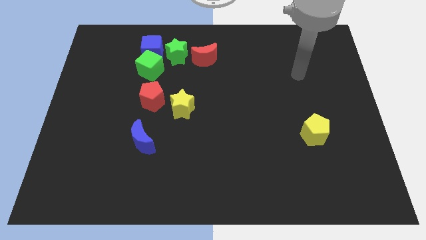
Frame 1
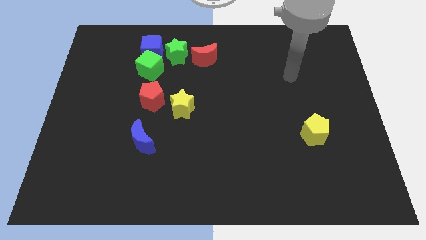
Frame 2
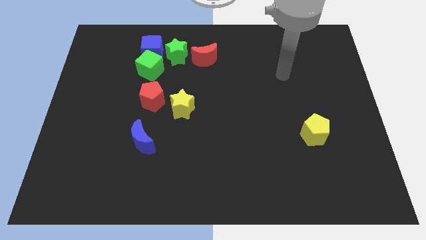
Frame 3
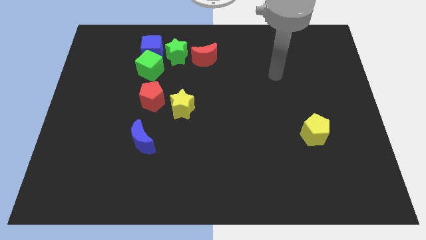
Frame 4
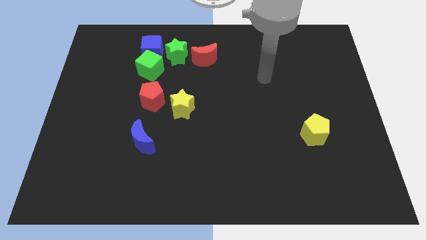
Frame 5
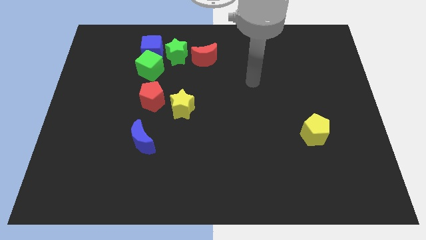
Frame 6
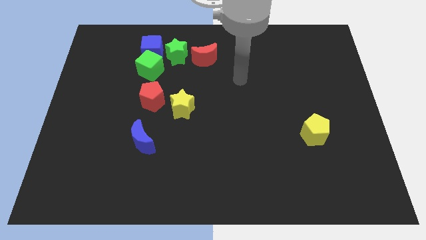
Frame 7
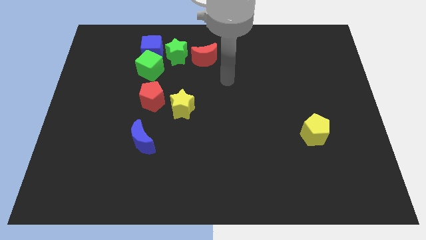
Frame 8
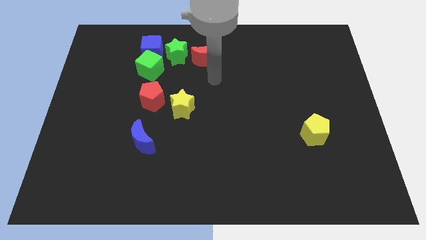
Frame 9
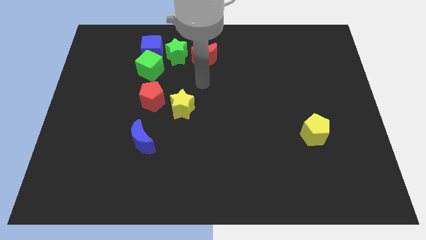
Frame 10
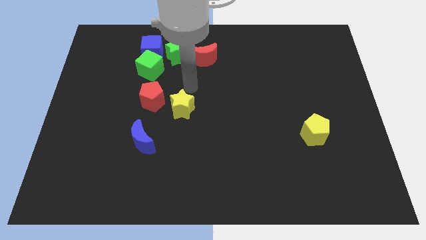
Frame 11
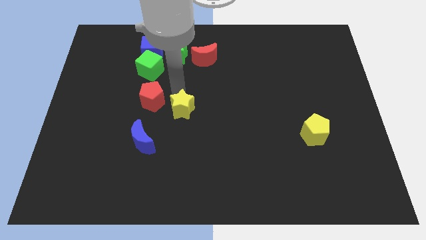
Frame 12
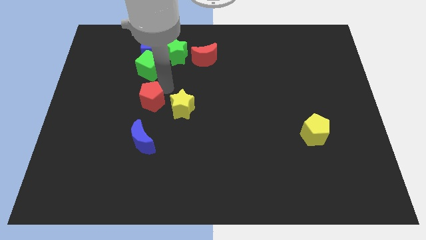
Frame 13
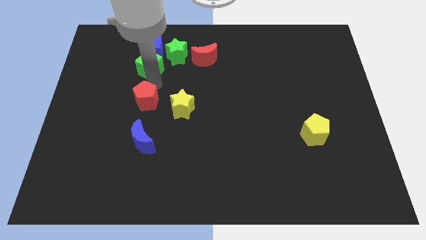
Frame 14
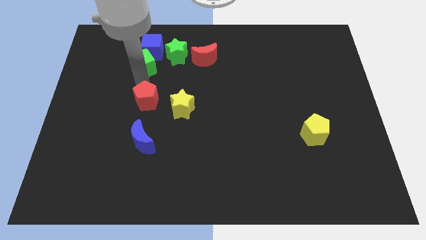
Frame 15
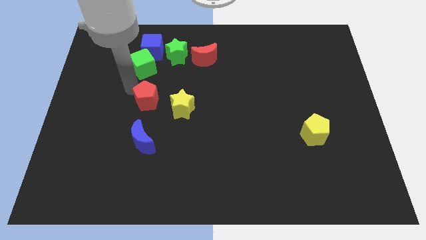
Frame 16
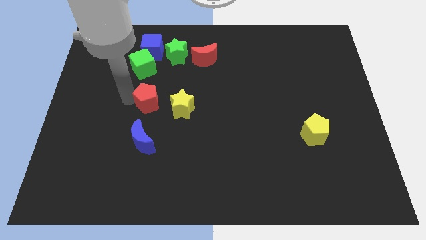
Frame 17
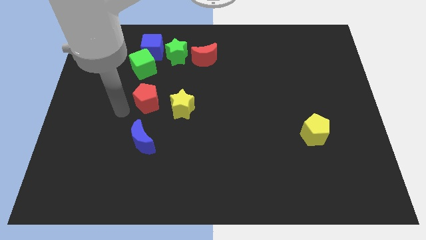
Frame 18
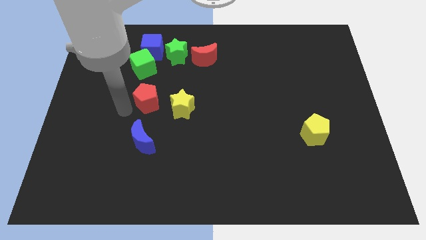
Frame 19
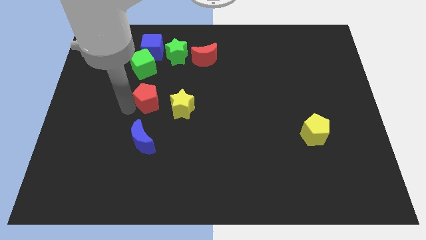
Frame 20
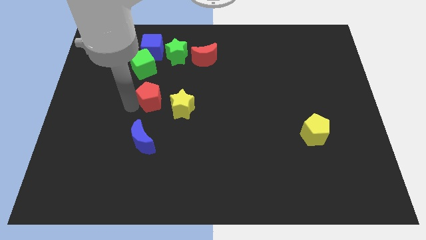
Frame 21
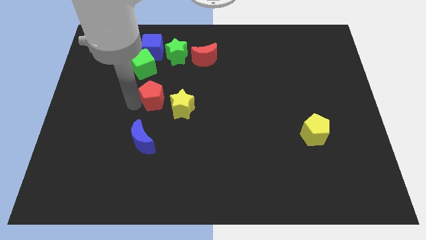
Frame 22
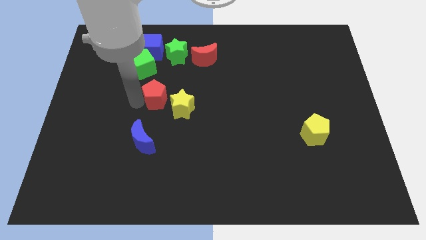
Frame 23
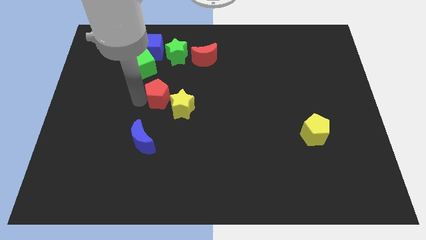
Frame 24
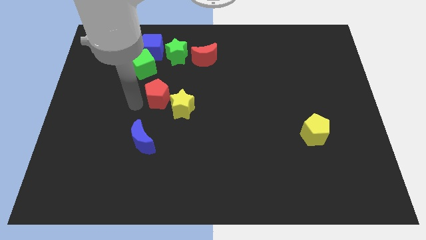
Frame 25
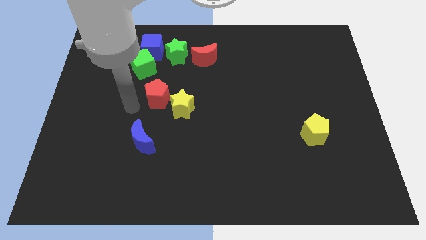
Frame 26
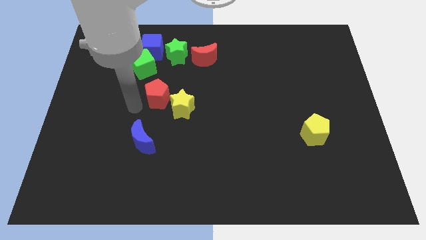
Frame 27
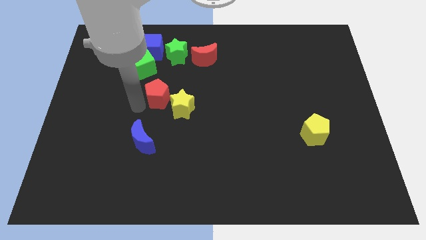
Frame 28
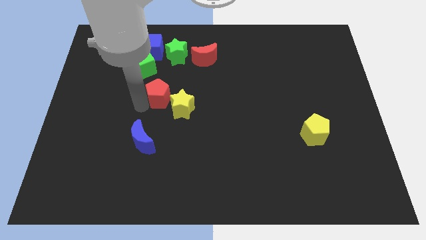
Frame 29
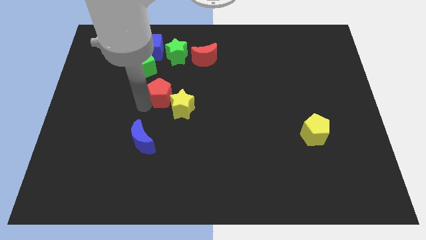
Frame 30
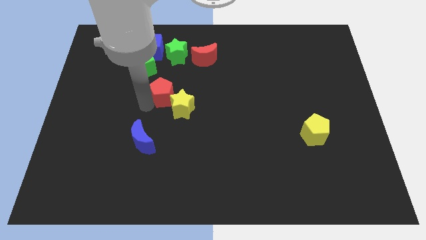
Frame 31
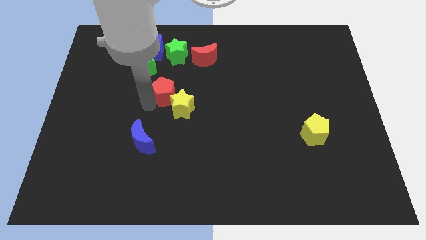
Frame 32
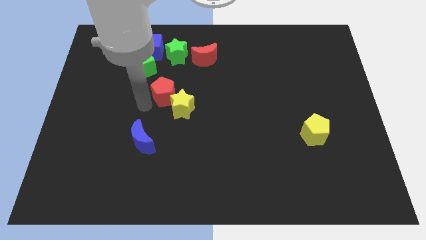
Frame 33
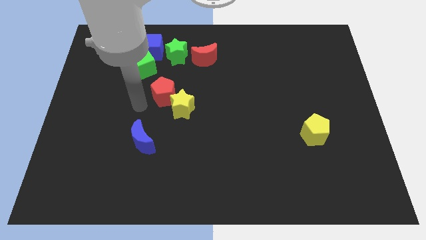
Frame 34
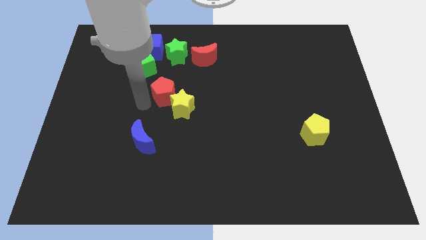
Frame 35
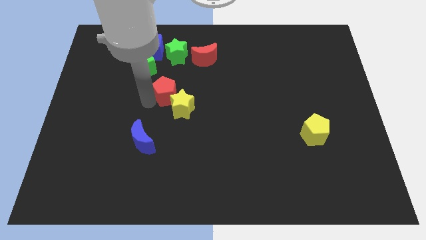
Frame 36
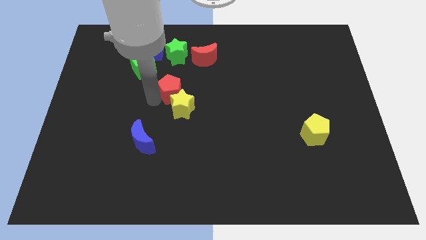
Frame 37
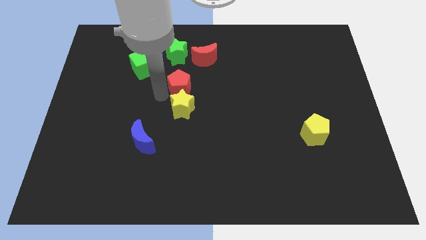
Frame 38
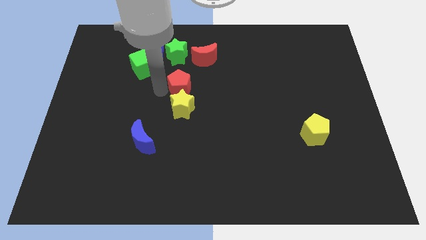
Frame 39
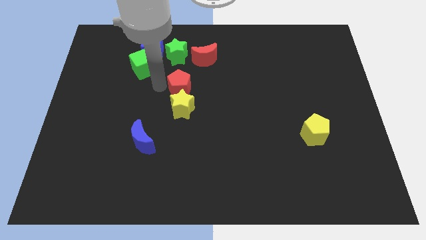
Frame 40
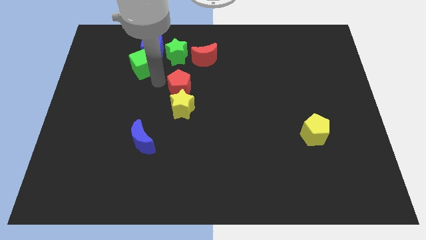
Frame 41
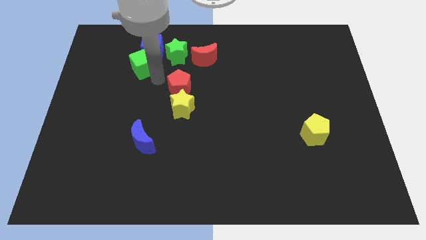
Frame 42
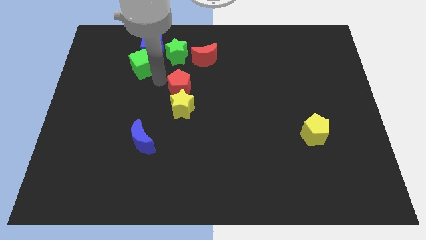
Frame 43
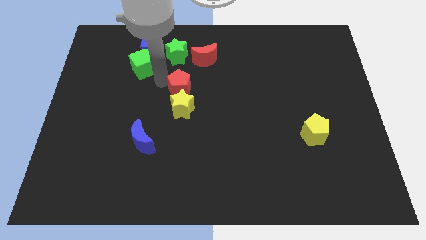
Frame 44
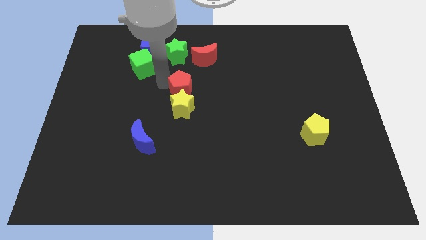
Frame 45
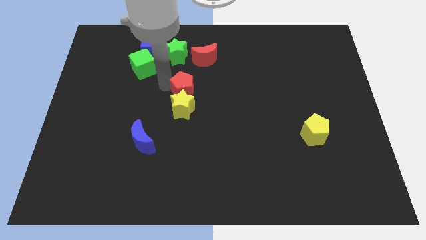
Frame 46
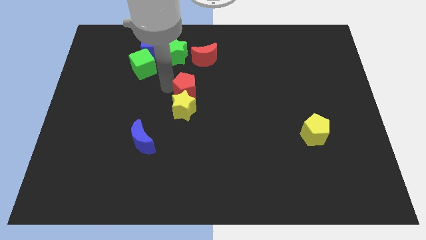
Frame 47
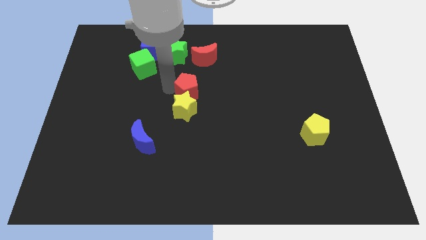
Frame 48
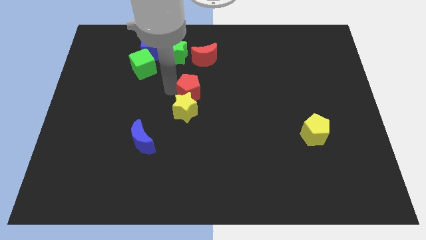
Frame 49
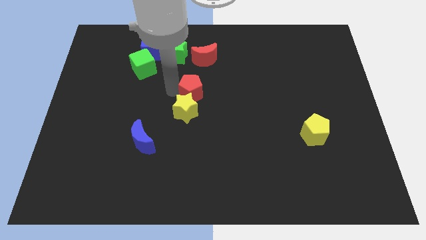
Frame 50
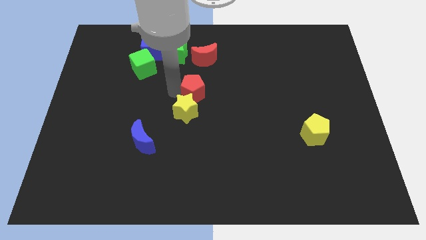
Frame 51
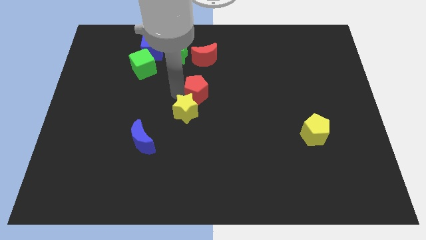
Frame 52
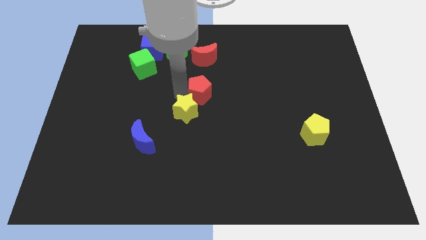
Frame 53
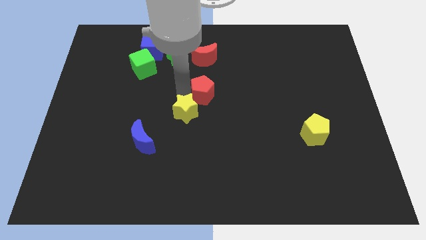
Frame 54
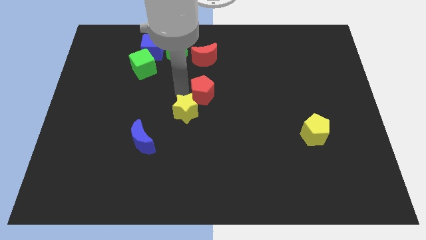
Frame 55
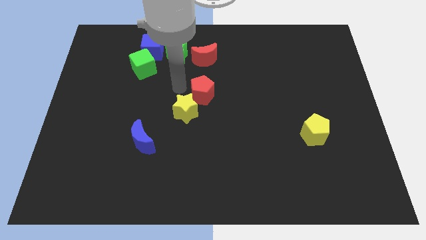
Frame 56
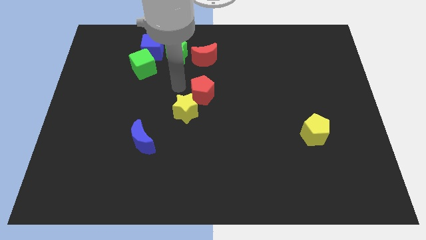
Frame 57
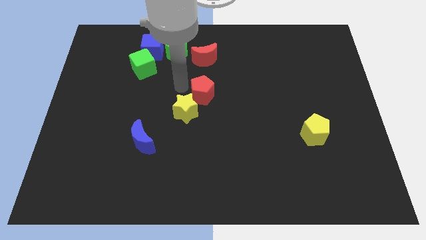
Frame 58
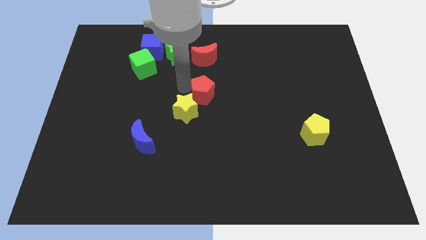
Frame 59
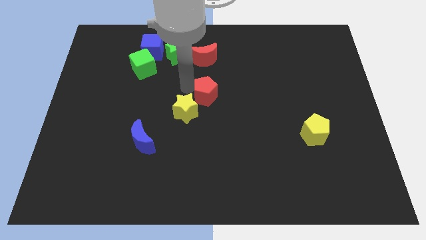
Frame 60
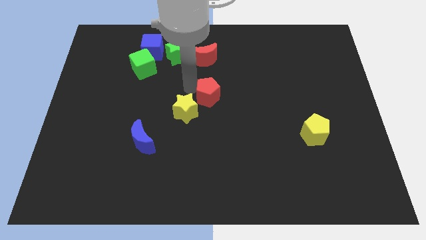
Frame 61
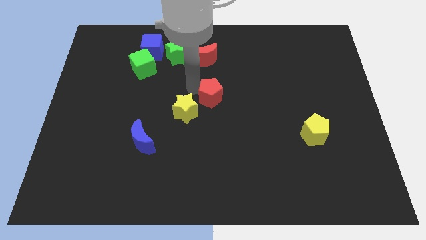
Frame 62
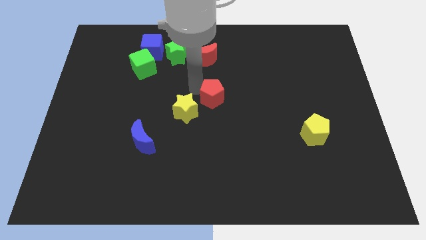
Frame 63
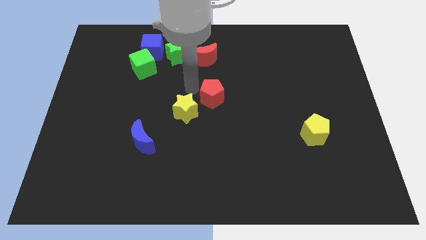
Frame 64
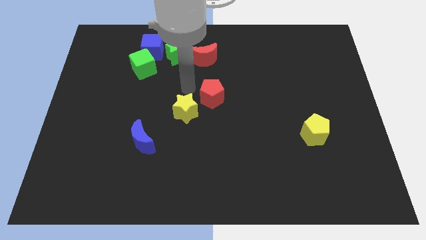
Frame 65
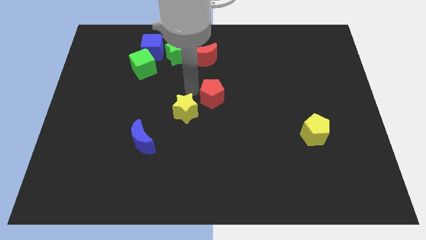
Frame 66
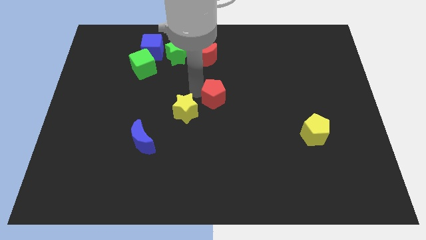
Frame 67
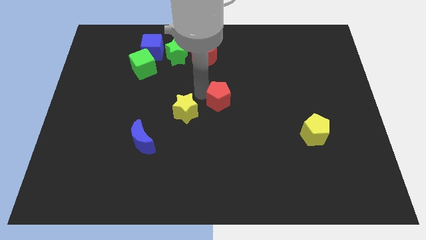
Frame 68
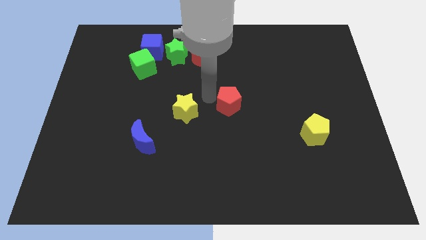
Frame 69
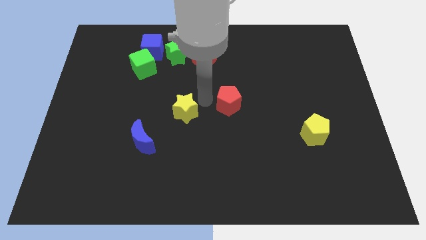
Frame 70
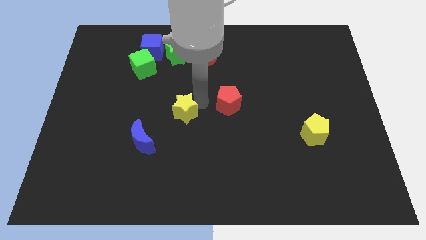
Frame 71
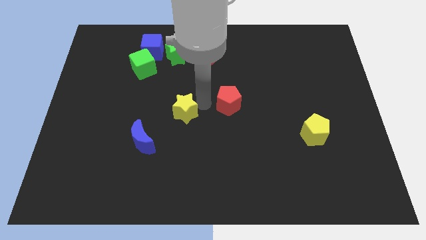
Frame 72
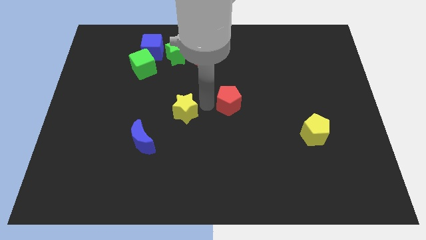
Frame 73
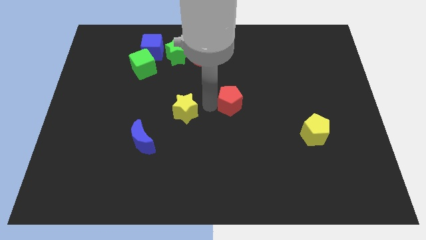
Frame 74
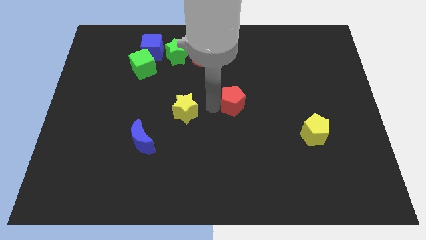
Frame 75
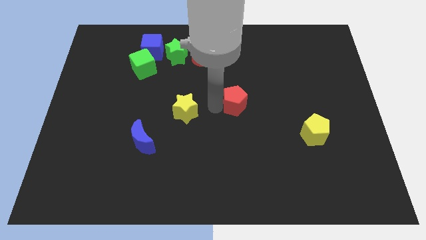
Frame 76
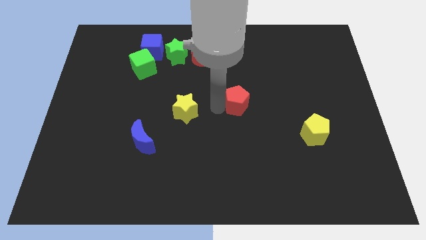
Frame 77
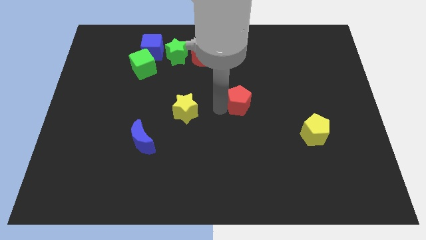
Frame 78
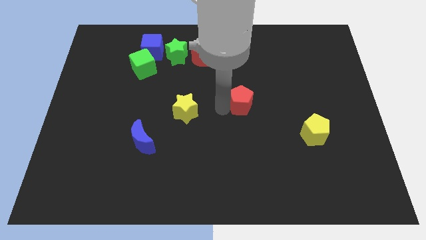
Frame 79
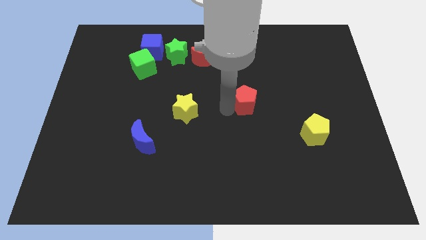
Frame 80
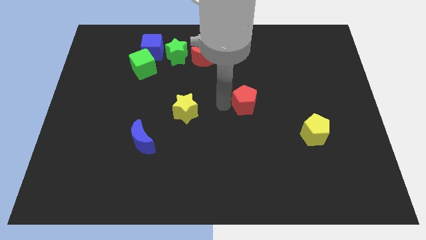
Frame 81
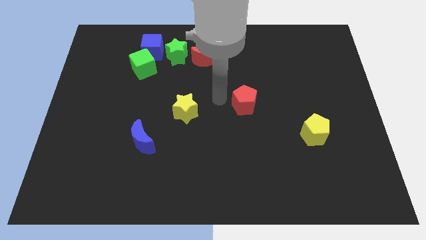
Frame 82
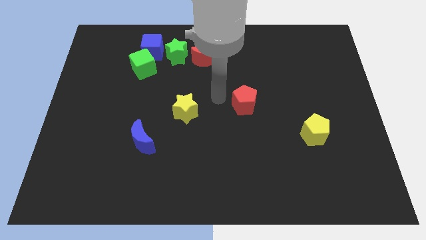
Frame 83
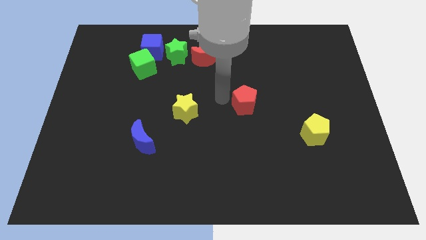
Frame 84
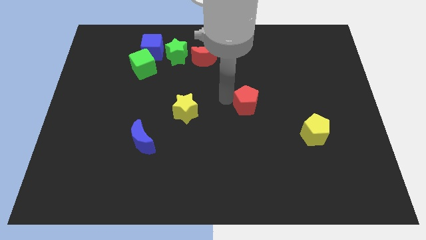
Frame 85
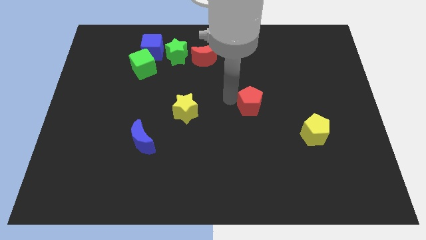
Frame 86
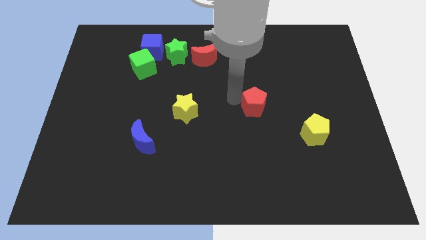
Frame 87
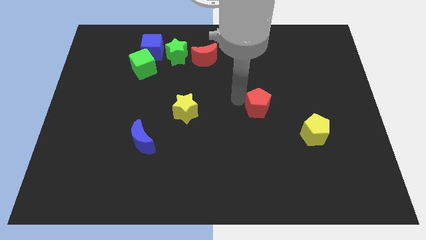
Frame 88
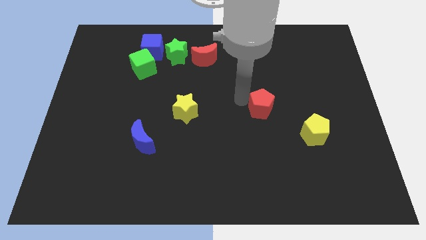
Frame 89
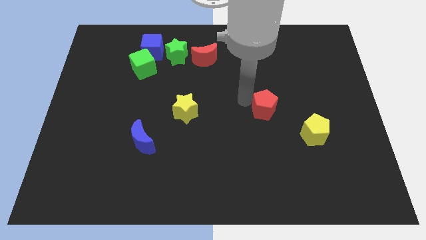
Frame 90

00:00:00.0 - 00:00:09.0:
push the red pentagon diagonally up and to the left of the yellow pentagon
